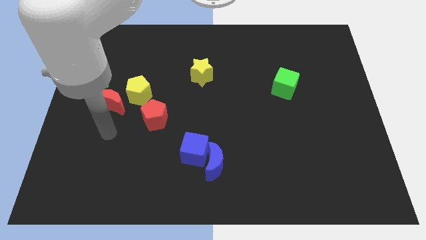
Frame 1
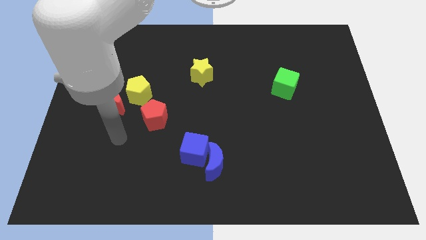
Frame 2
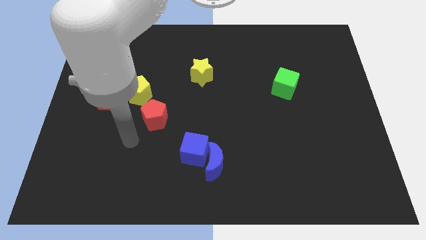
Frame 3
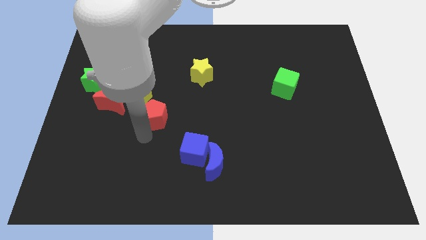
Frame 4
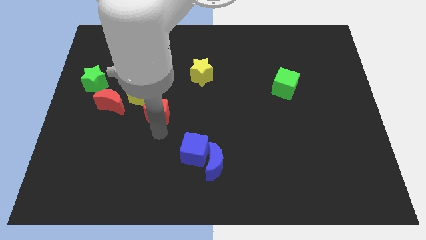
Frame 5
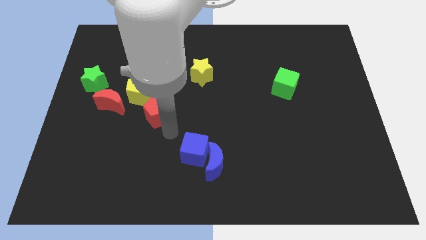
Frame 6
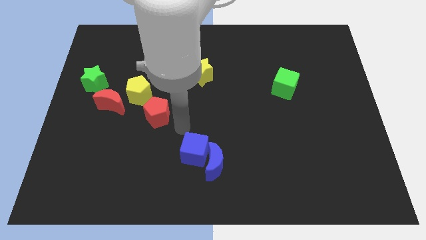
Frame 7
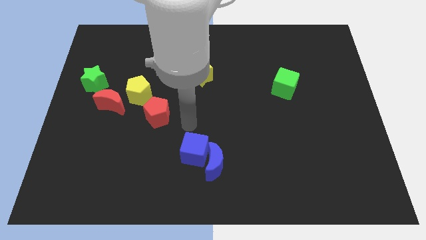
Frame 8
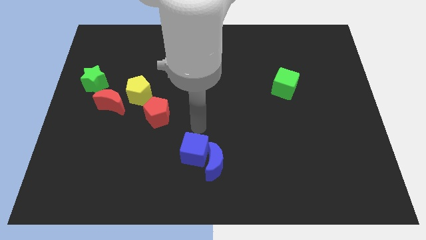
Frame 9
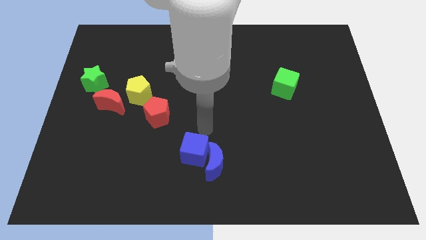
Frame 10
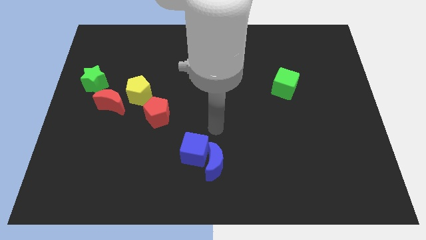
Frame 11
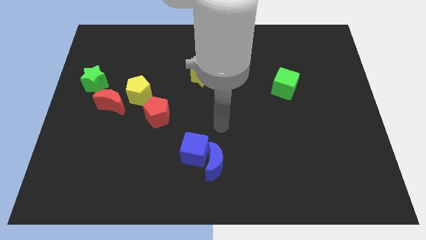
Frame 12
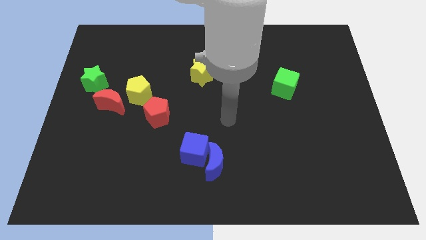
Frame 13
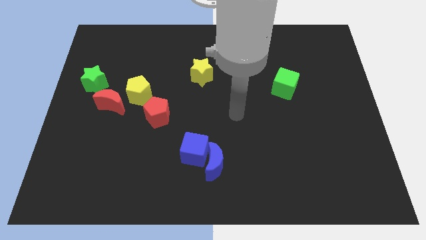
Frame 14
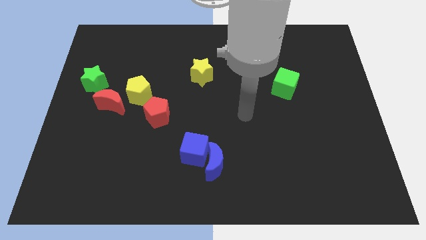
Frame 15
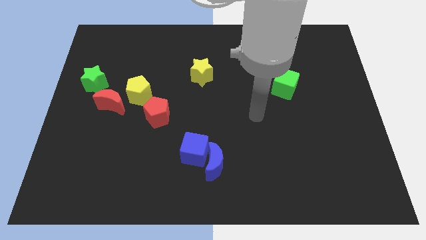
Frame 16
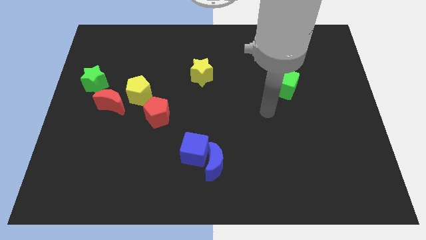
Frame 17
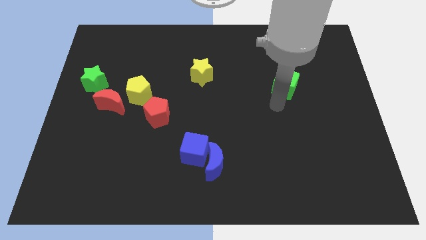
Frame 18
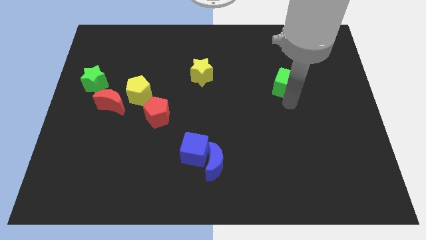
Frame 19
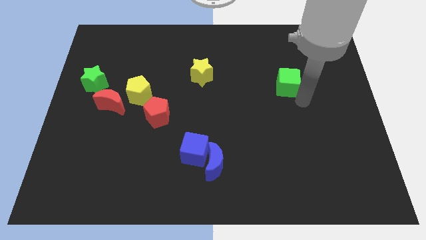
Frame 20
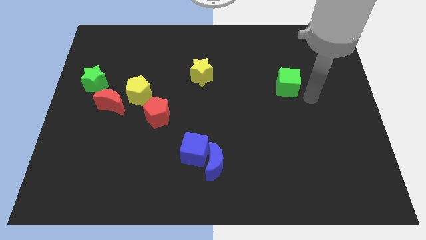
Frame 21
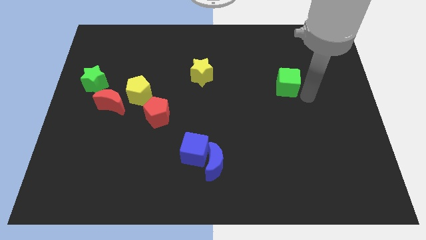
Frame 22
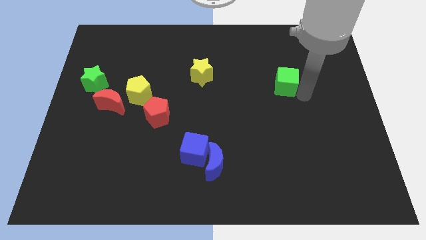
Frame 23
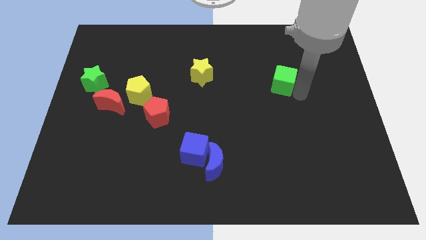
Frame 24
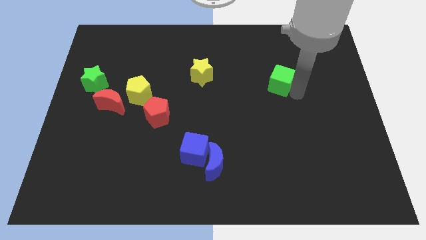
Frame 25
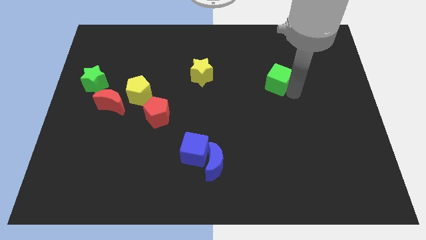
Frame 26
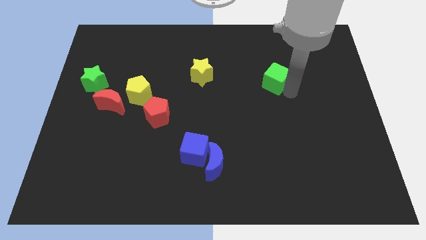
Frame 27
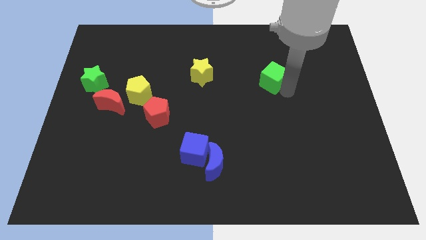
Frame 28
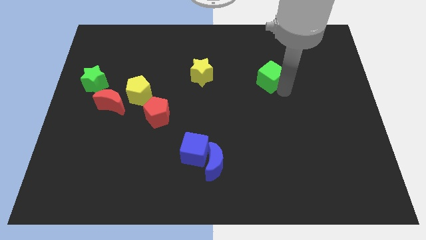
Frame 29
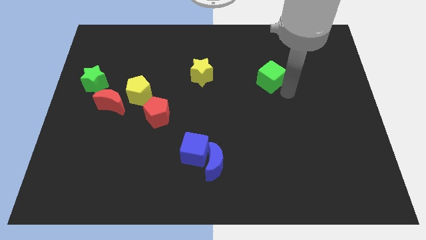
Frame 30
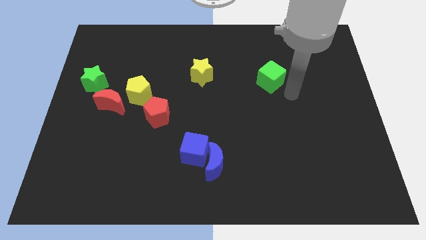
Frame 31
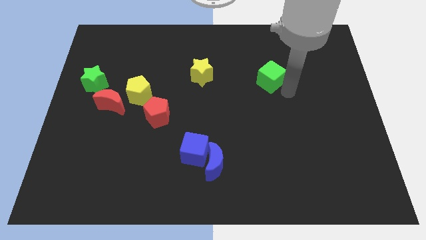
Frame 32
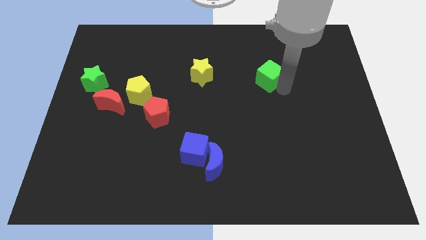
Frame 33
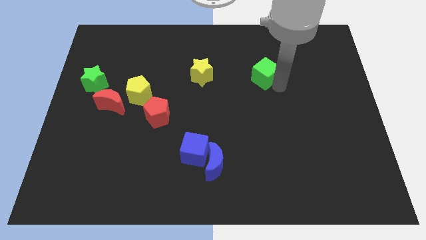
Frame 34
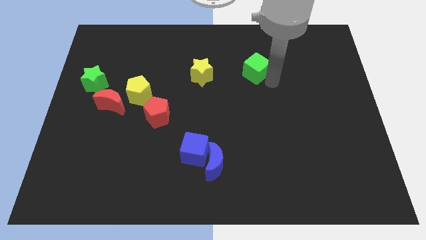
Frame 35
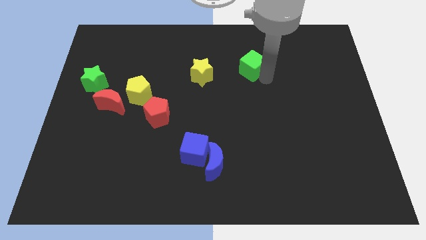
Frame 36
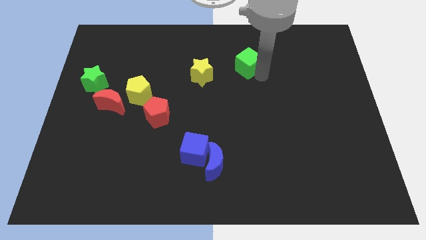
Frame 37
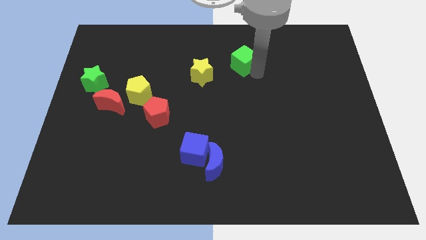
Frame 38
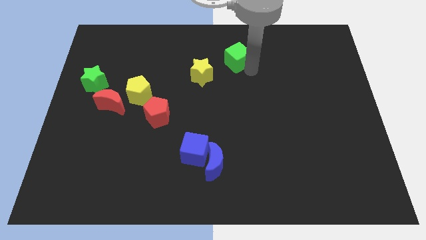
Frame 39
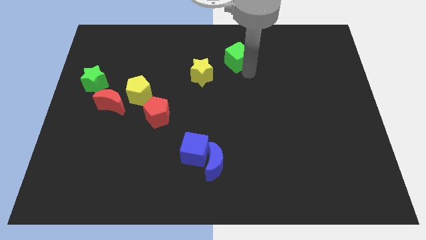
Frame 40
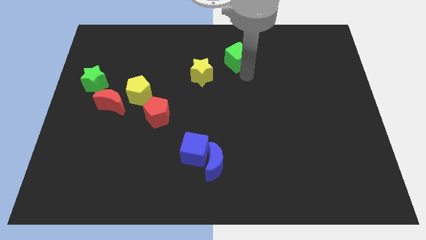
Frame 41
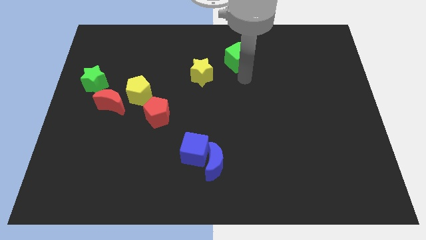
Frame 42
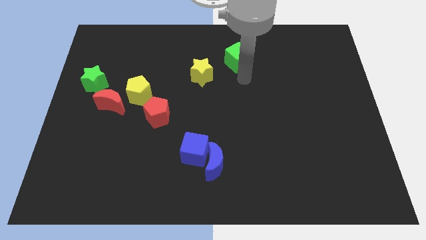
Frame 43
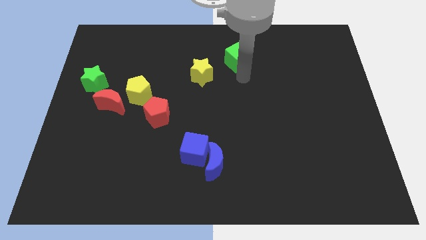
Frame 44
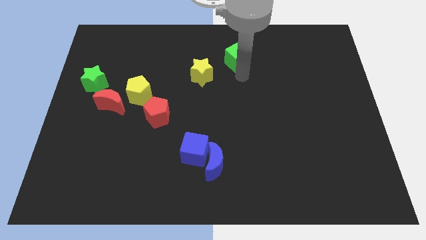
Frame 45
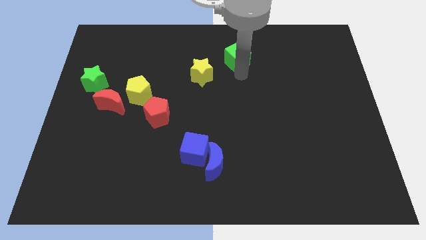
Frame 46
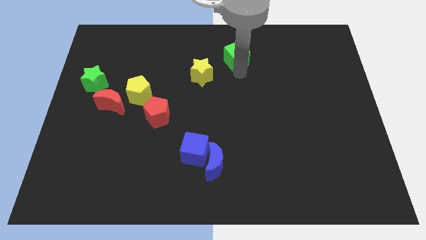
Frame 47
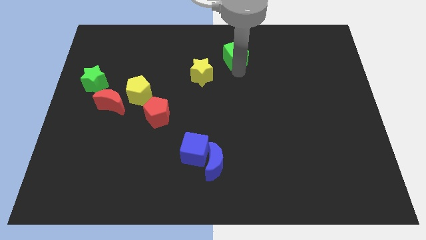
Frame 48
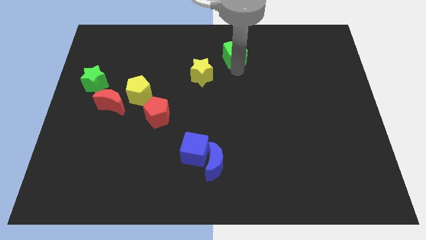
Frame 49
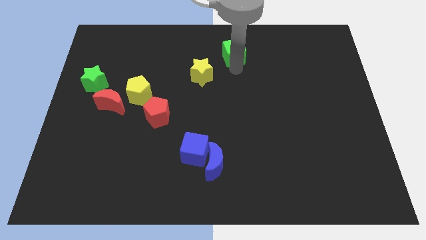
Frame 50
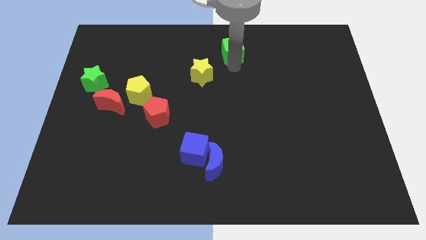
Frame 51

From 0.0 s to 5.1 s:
put the green cube to the towards your base

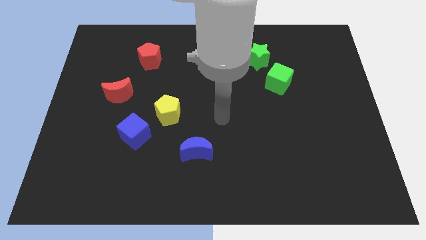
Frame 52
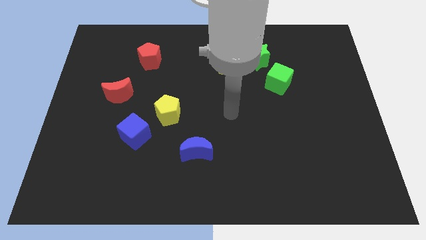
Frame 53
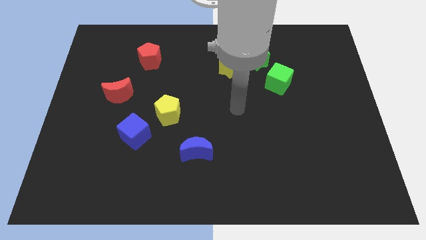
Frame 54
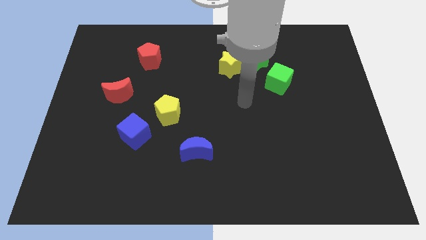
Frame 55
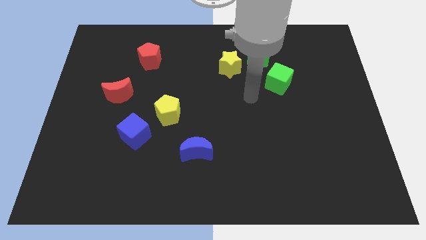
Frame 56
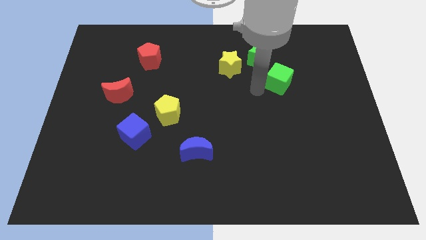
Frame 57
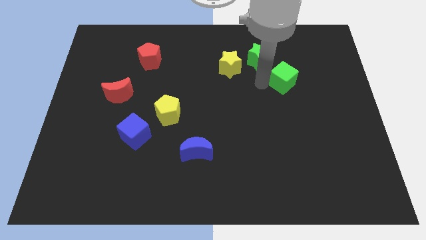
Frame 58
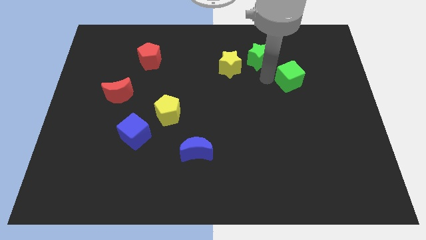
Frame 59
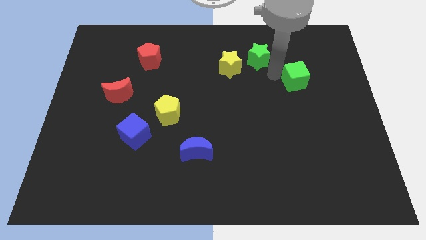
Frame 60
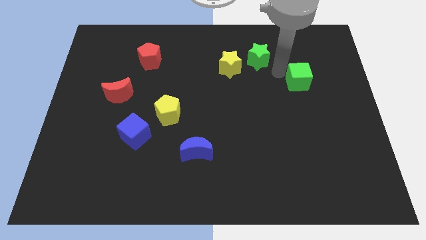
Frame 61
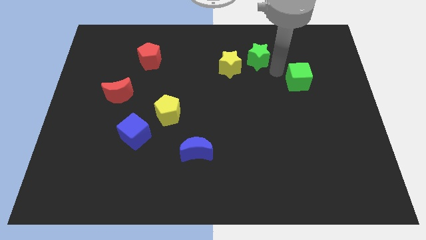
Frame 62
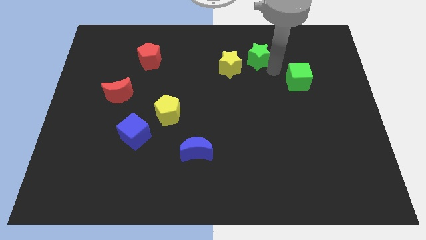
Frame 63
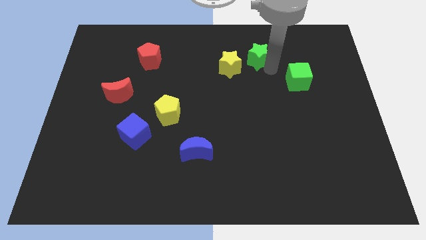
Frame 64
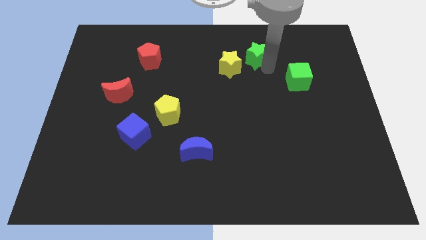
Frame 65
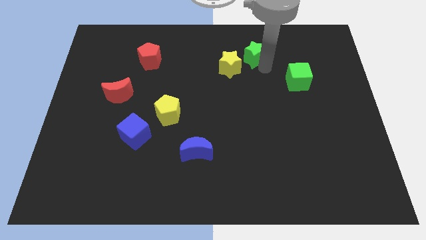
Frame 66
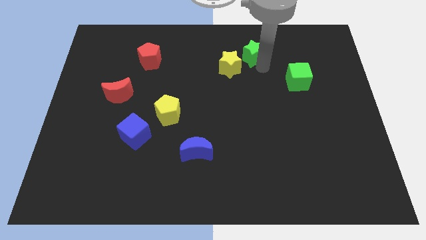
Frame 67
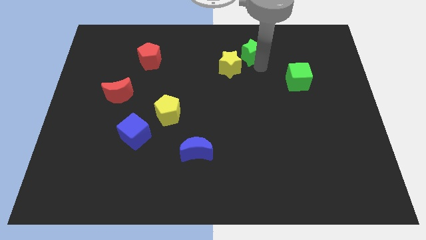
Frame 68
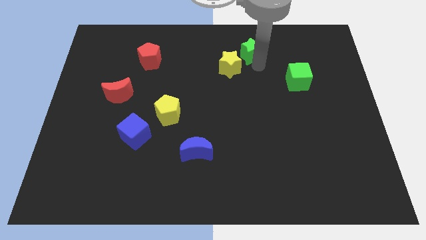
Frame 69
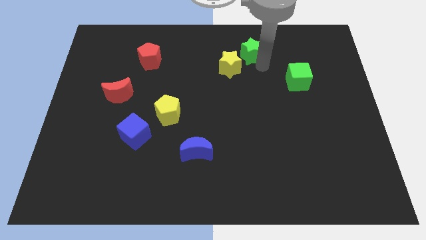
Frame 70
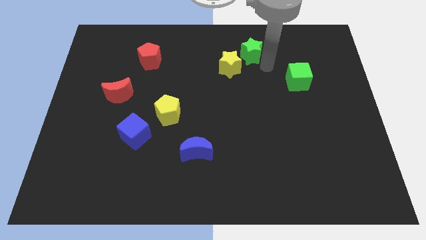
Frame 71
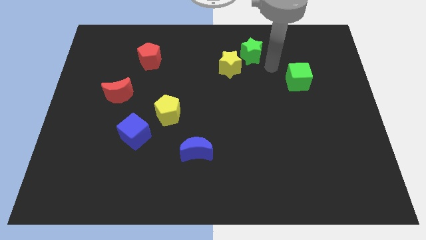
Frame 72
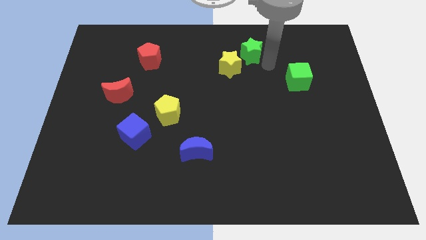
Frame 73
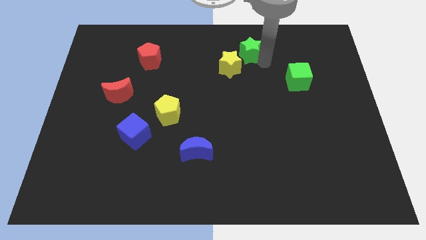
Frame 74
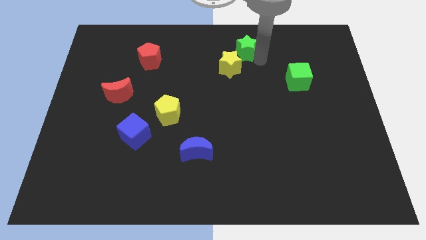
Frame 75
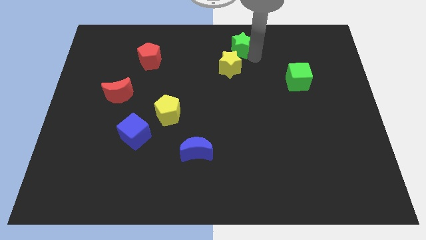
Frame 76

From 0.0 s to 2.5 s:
put the green star to the towards your base
